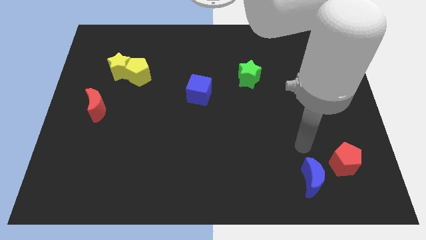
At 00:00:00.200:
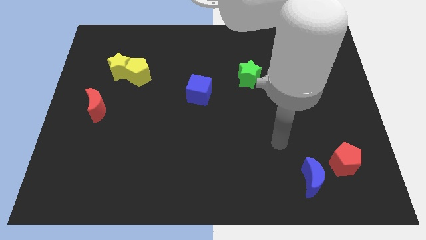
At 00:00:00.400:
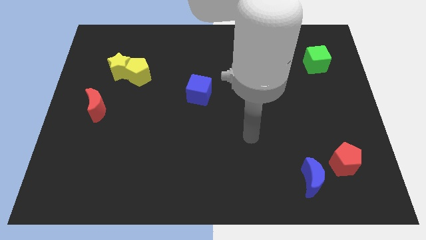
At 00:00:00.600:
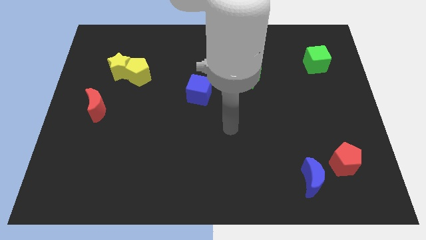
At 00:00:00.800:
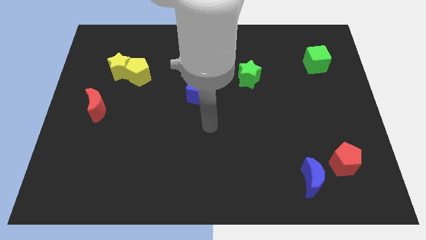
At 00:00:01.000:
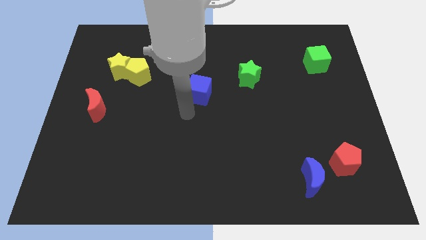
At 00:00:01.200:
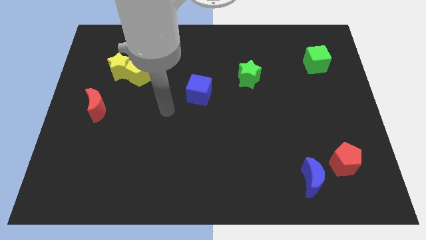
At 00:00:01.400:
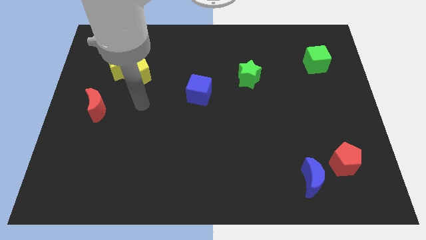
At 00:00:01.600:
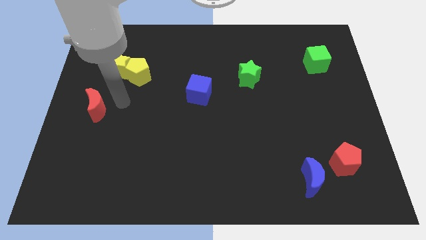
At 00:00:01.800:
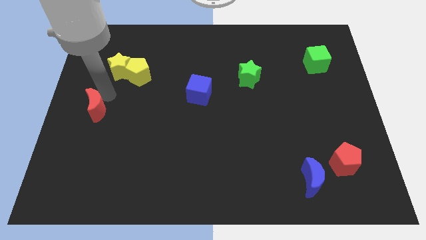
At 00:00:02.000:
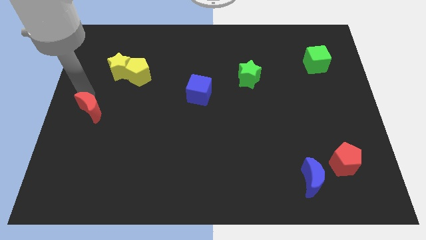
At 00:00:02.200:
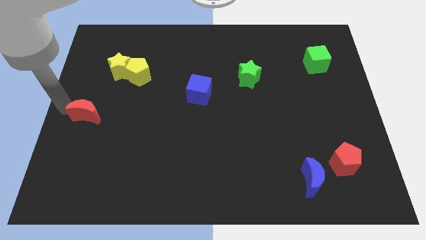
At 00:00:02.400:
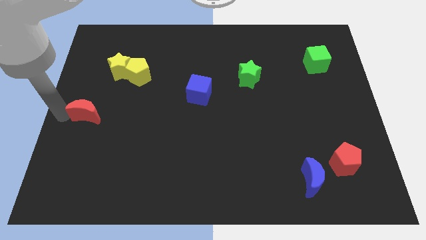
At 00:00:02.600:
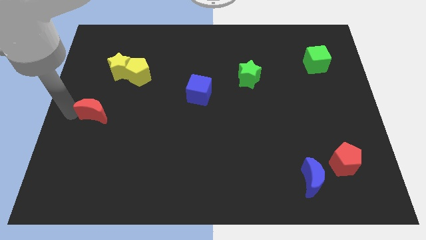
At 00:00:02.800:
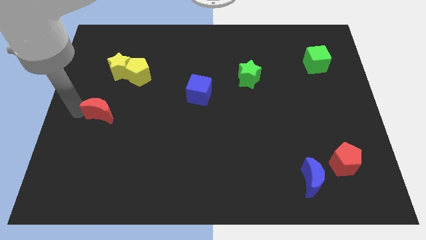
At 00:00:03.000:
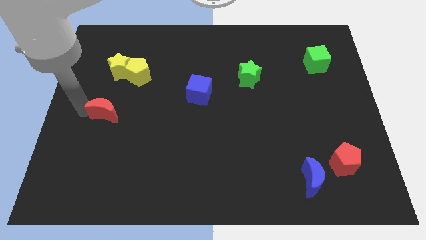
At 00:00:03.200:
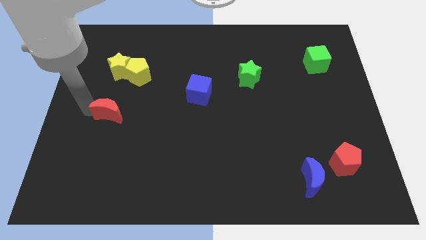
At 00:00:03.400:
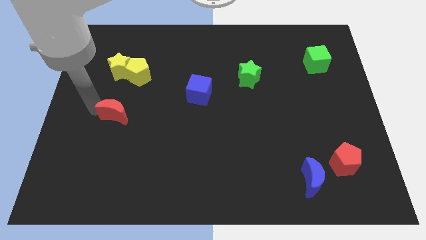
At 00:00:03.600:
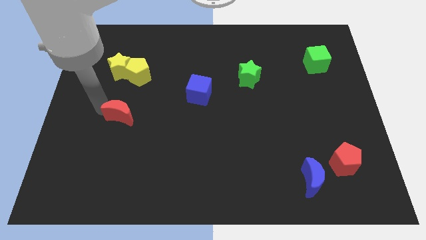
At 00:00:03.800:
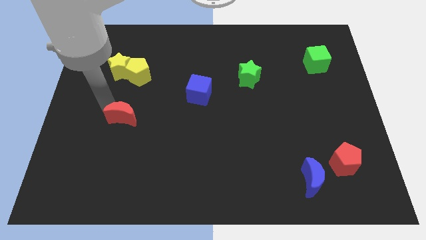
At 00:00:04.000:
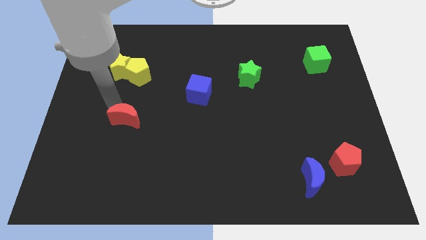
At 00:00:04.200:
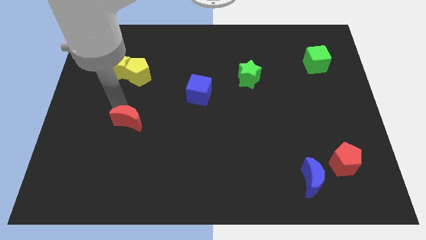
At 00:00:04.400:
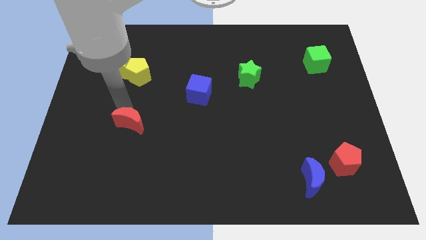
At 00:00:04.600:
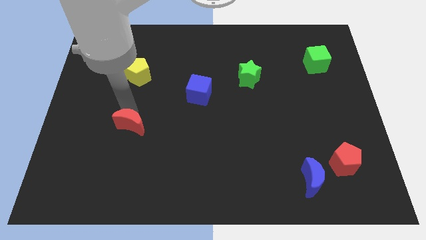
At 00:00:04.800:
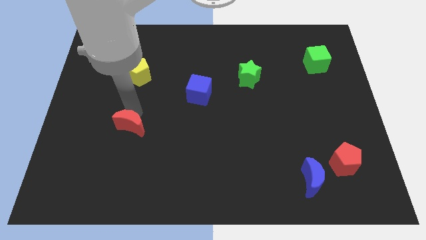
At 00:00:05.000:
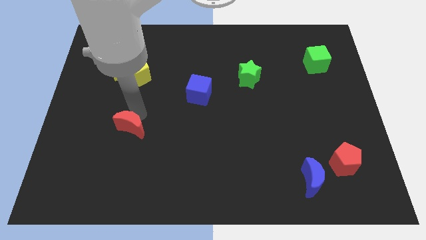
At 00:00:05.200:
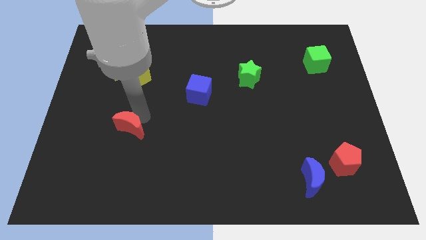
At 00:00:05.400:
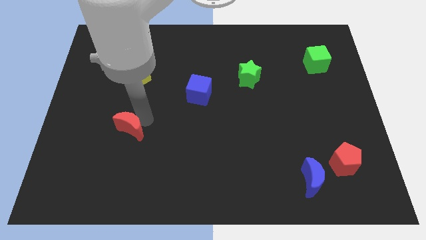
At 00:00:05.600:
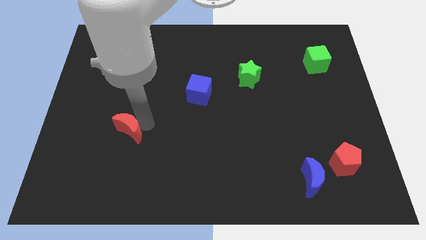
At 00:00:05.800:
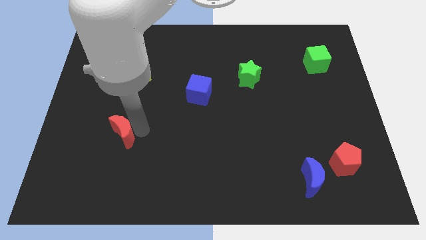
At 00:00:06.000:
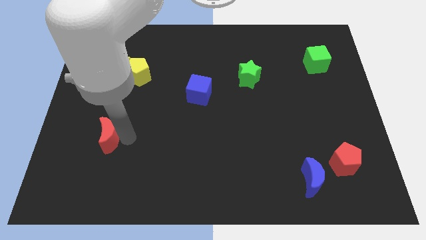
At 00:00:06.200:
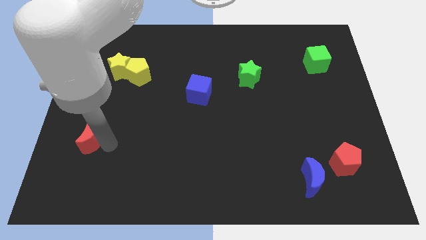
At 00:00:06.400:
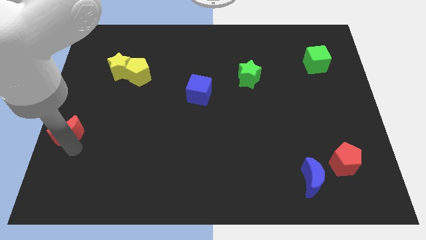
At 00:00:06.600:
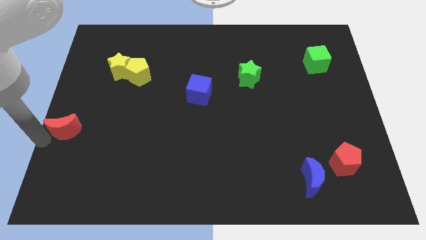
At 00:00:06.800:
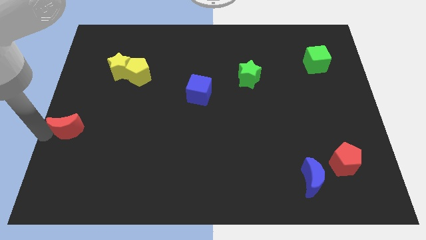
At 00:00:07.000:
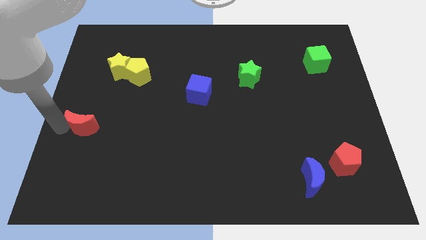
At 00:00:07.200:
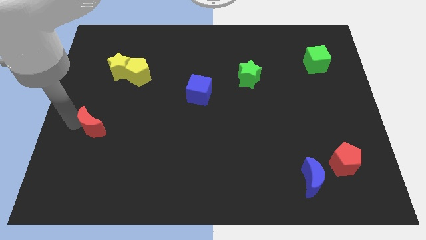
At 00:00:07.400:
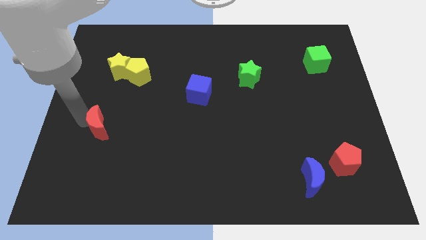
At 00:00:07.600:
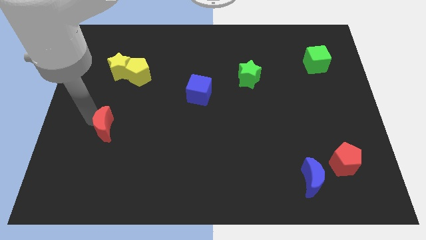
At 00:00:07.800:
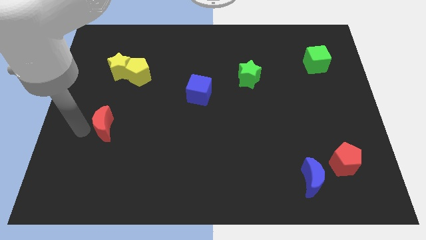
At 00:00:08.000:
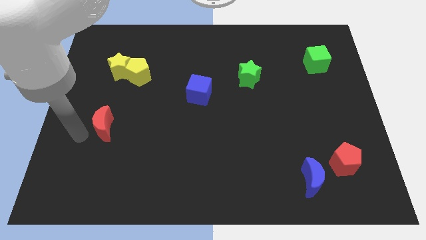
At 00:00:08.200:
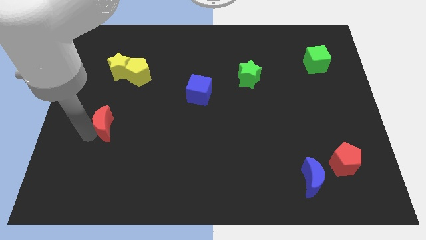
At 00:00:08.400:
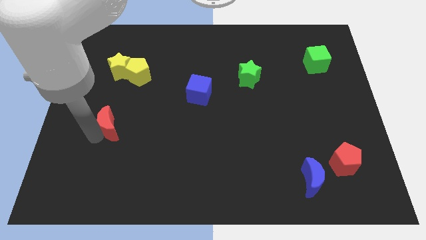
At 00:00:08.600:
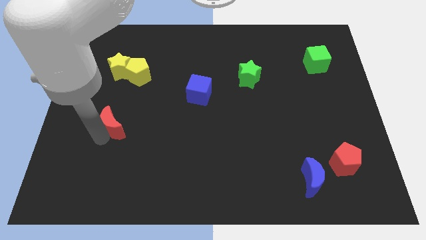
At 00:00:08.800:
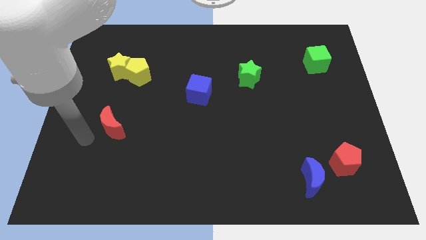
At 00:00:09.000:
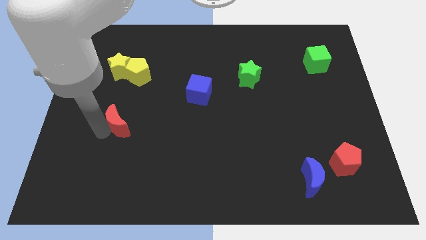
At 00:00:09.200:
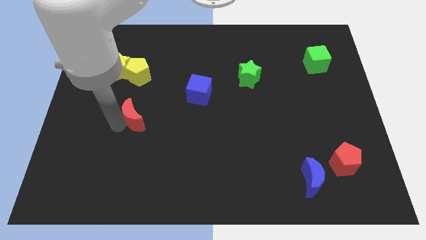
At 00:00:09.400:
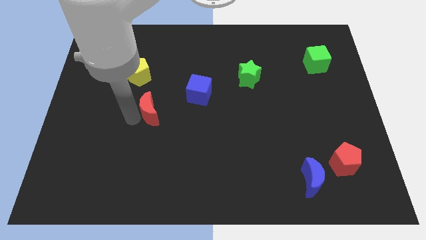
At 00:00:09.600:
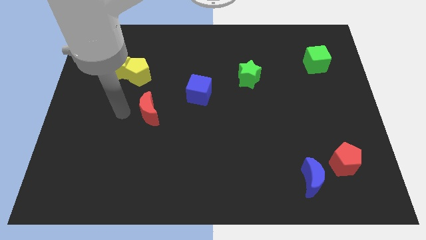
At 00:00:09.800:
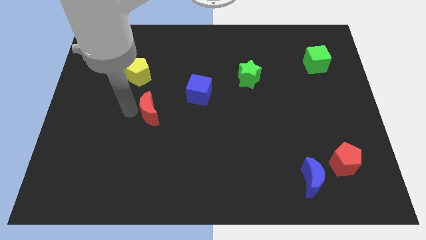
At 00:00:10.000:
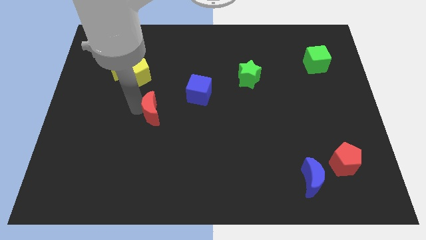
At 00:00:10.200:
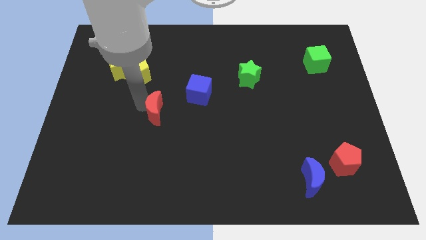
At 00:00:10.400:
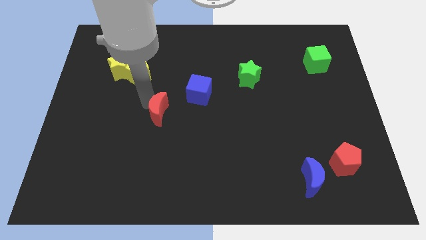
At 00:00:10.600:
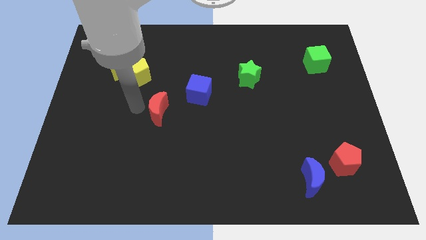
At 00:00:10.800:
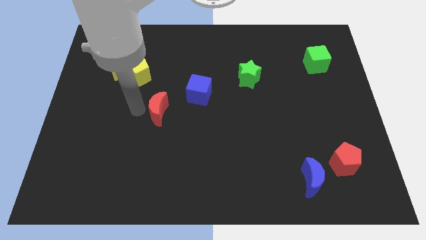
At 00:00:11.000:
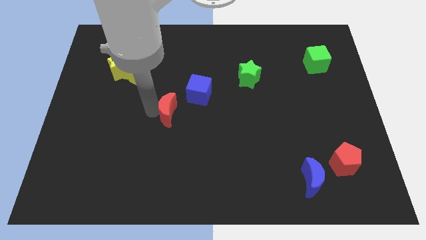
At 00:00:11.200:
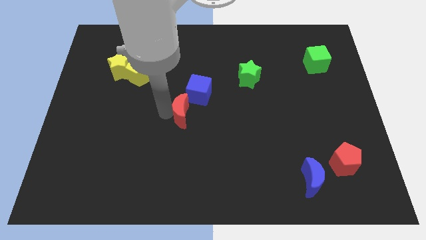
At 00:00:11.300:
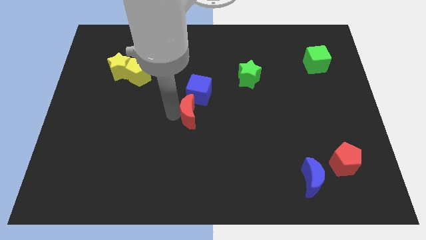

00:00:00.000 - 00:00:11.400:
slide the red moon to the right

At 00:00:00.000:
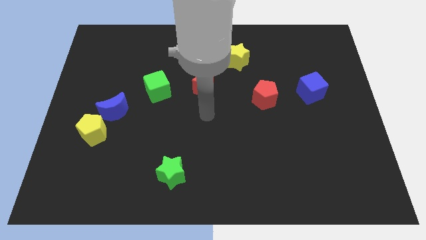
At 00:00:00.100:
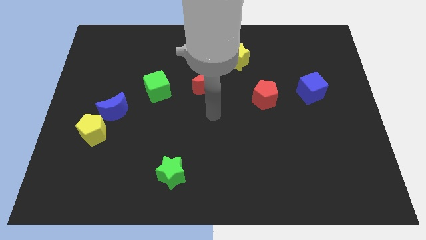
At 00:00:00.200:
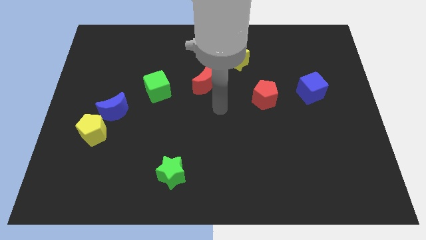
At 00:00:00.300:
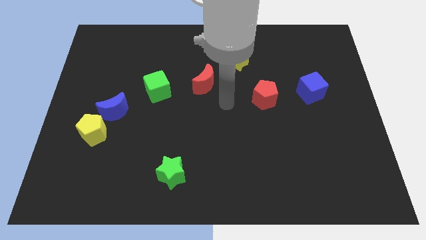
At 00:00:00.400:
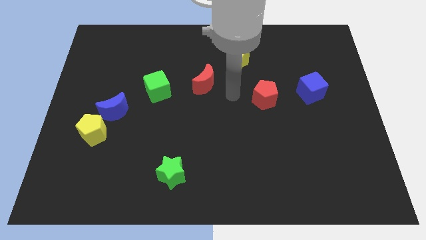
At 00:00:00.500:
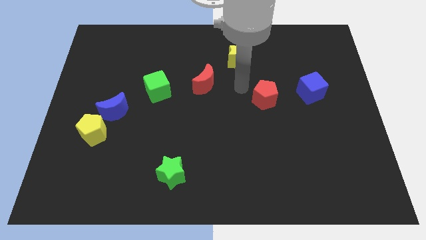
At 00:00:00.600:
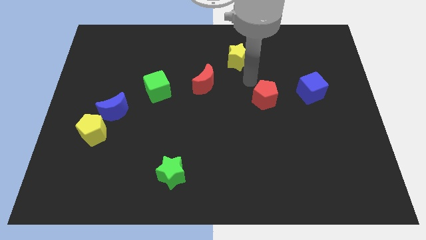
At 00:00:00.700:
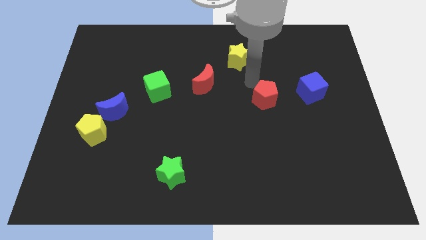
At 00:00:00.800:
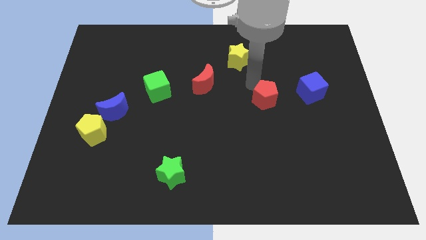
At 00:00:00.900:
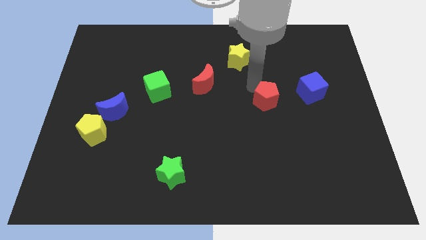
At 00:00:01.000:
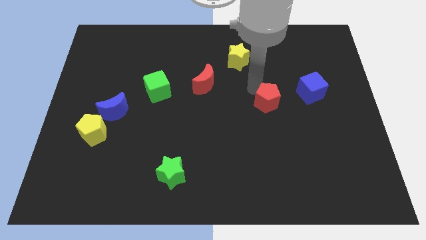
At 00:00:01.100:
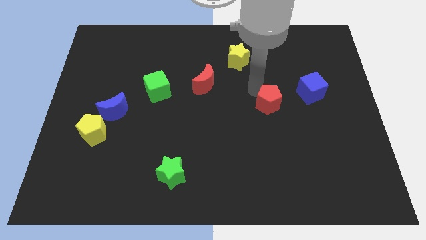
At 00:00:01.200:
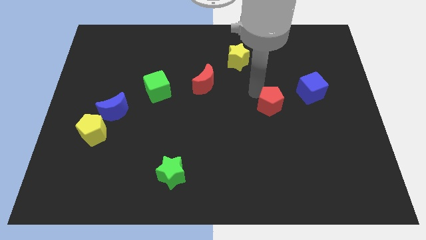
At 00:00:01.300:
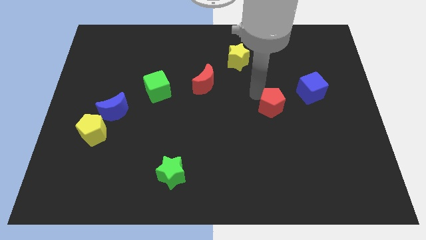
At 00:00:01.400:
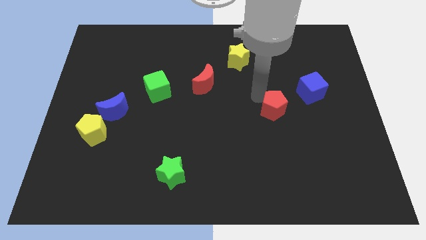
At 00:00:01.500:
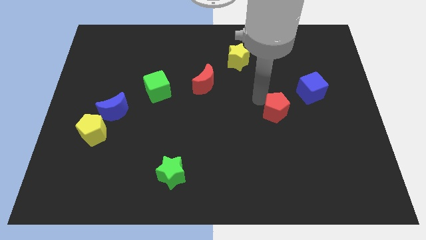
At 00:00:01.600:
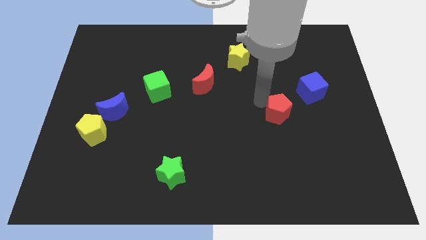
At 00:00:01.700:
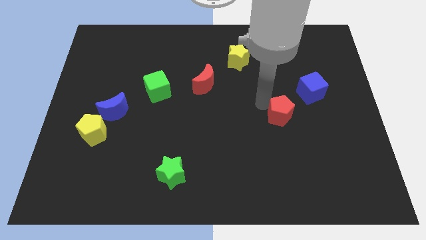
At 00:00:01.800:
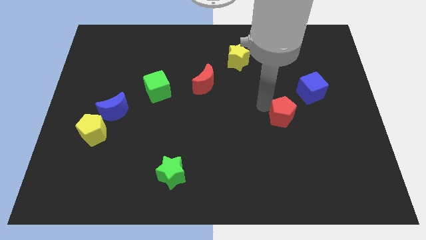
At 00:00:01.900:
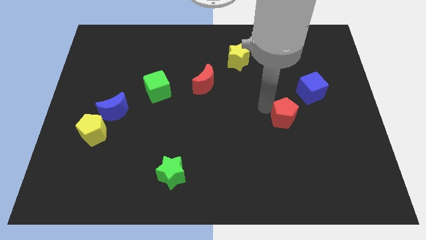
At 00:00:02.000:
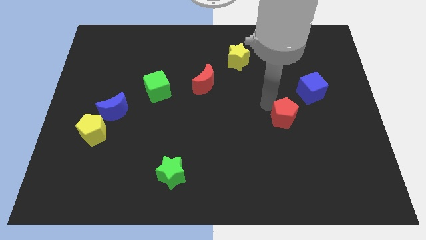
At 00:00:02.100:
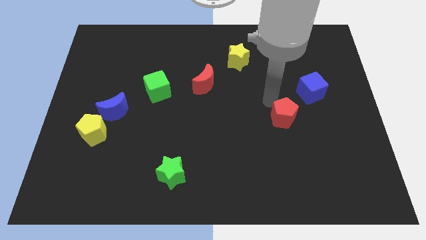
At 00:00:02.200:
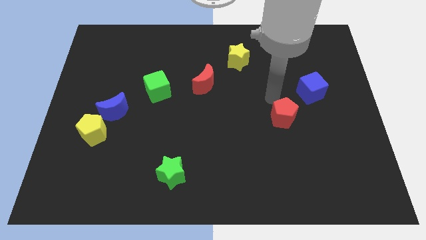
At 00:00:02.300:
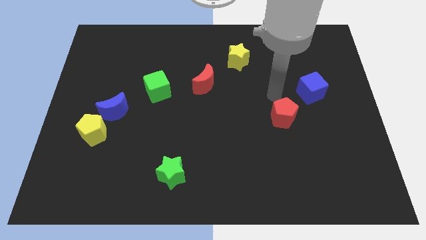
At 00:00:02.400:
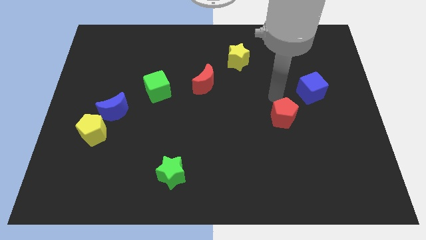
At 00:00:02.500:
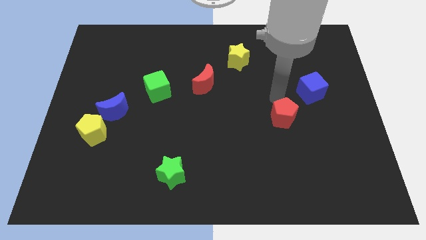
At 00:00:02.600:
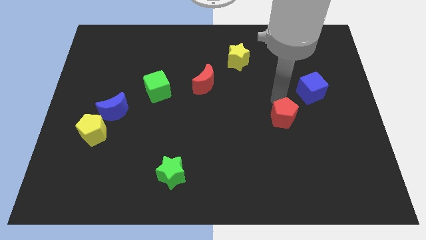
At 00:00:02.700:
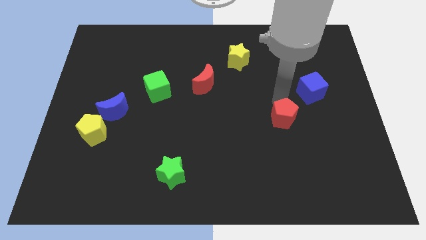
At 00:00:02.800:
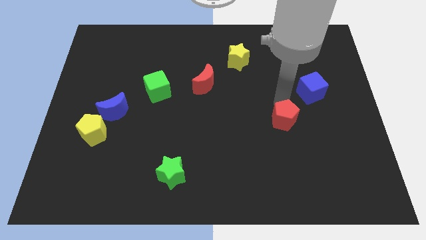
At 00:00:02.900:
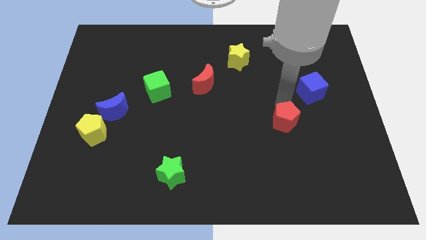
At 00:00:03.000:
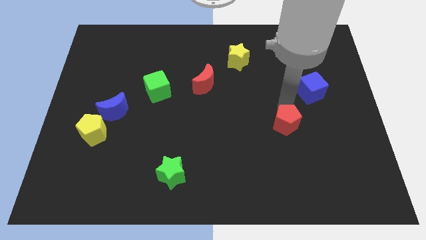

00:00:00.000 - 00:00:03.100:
push the red pentagon downwards somewhat
